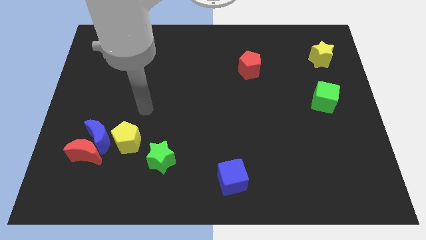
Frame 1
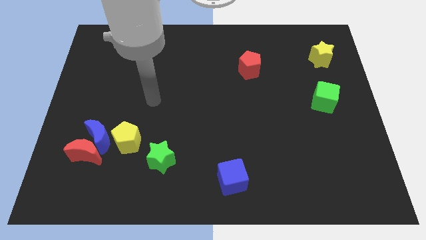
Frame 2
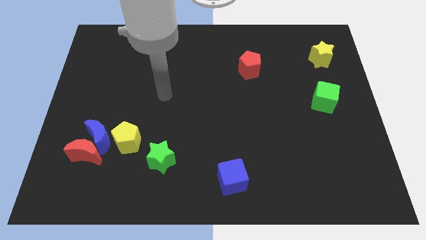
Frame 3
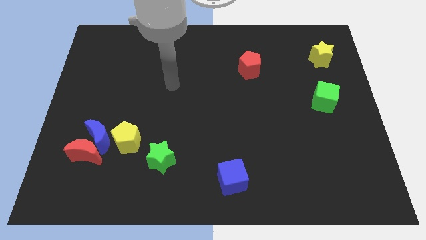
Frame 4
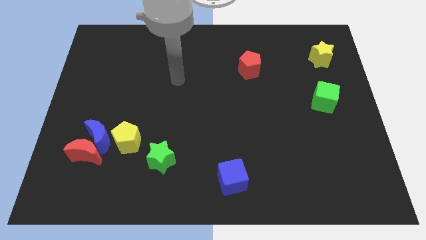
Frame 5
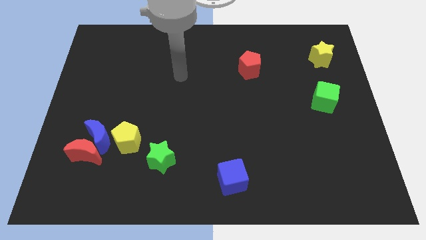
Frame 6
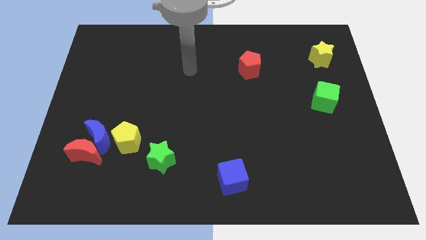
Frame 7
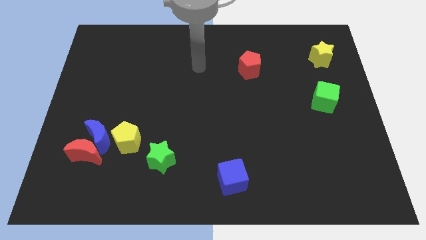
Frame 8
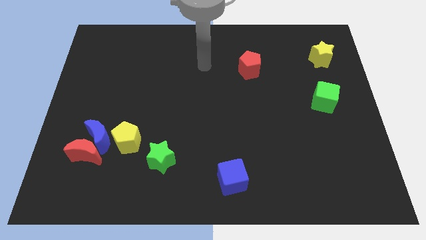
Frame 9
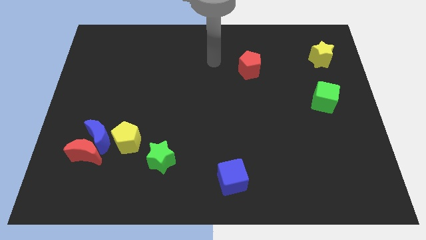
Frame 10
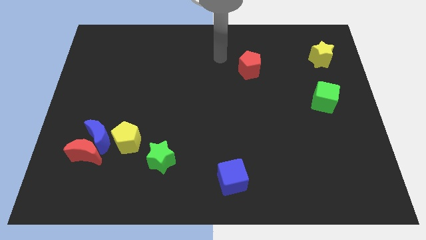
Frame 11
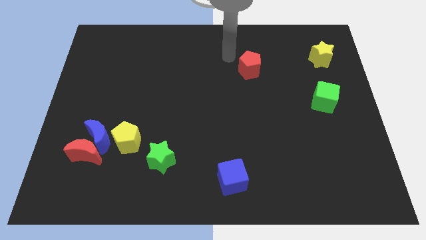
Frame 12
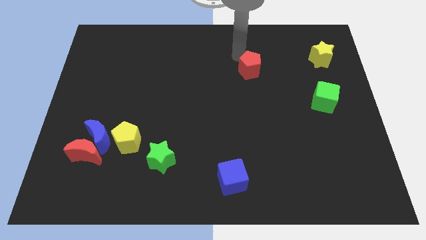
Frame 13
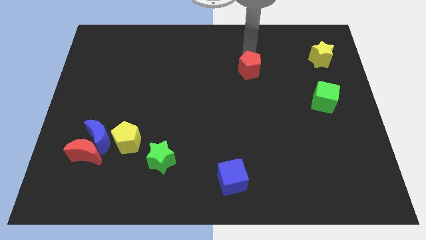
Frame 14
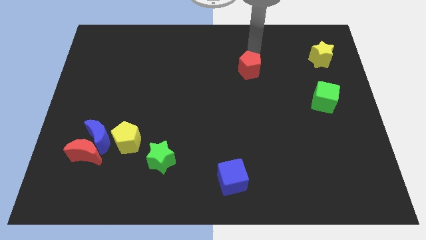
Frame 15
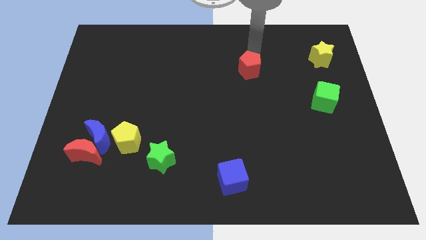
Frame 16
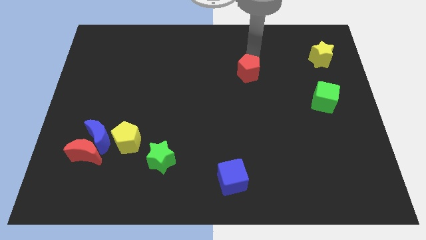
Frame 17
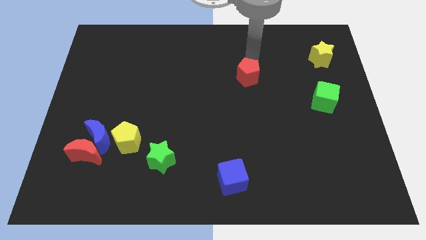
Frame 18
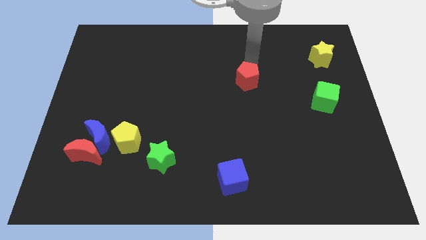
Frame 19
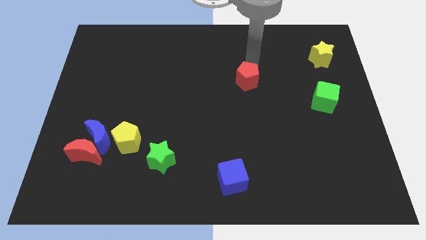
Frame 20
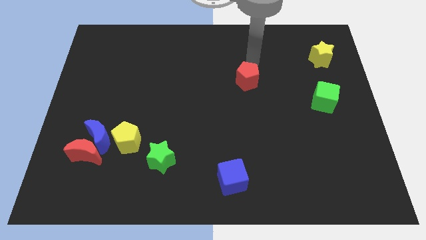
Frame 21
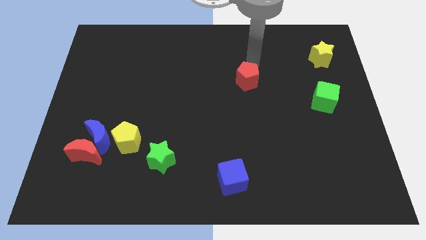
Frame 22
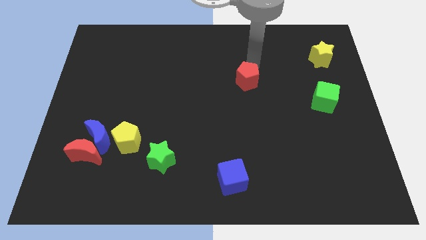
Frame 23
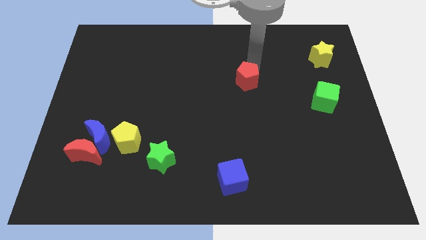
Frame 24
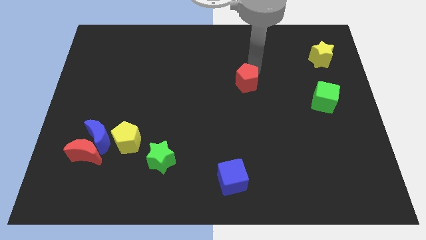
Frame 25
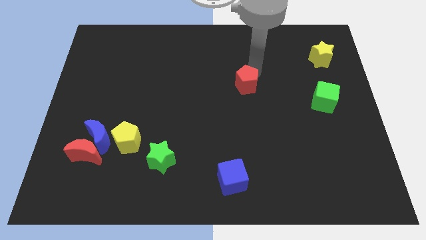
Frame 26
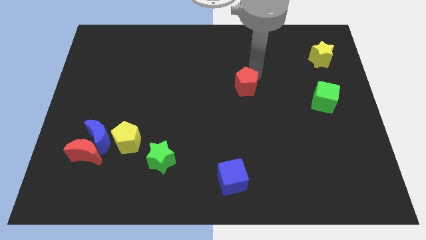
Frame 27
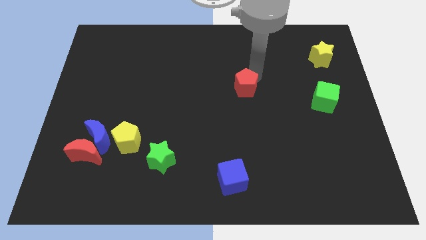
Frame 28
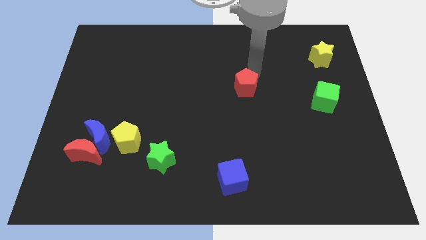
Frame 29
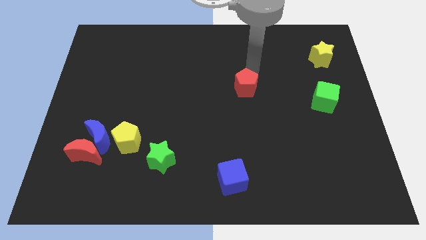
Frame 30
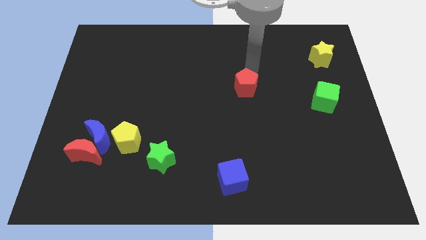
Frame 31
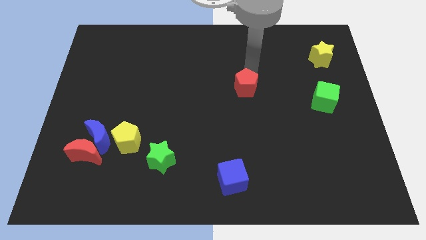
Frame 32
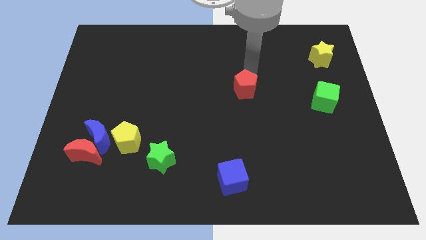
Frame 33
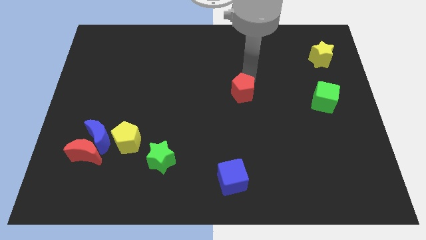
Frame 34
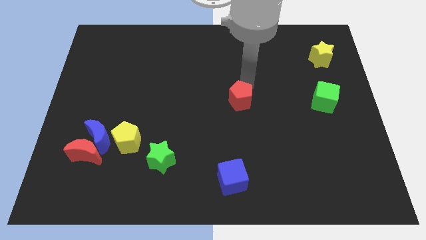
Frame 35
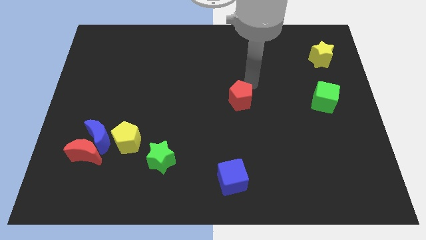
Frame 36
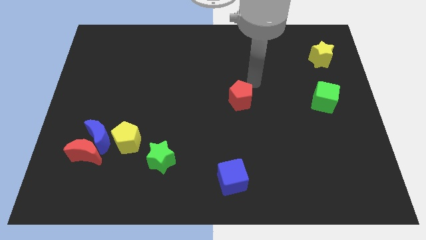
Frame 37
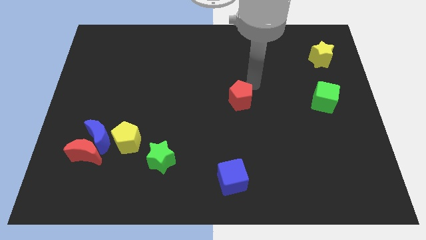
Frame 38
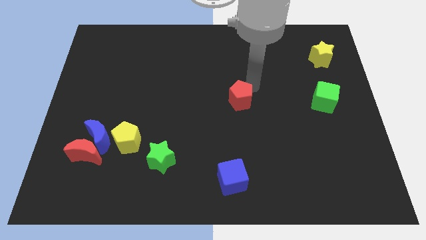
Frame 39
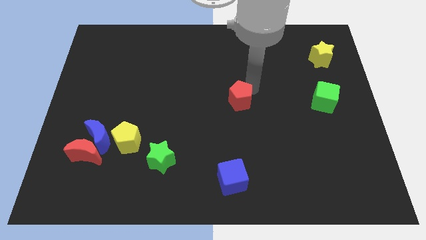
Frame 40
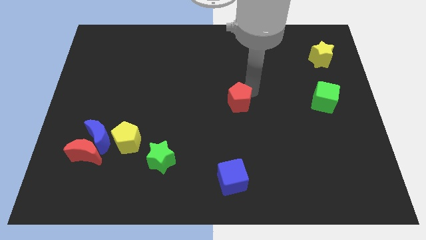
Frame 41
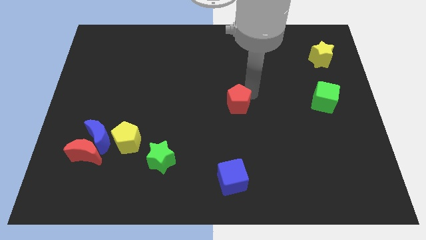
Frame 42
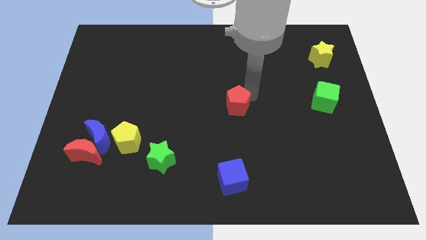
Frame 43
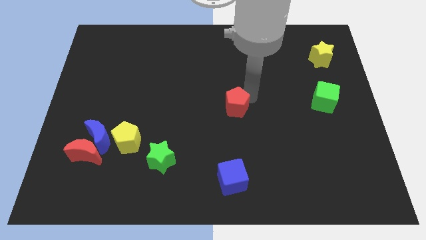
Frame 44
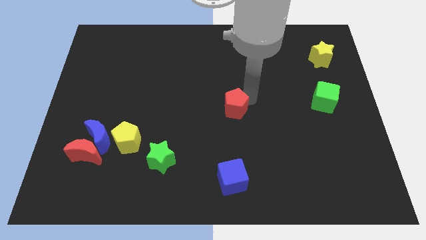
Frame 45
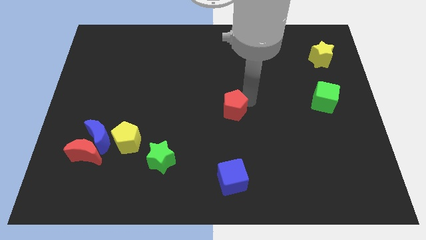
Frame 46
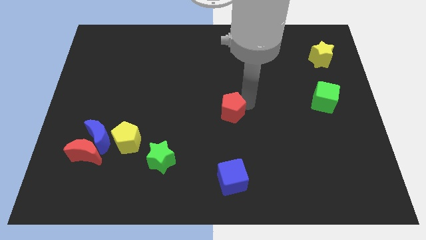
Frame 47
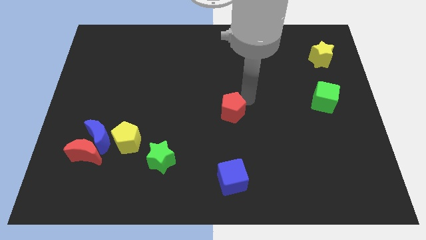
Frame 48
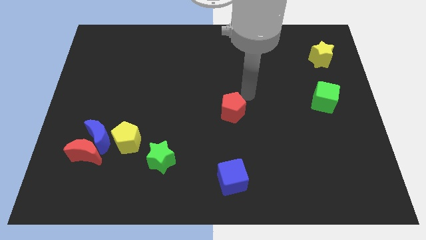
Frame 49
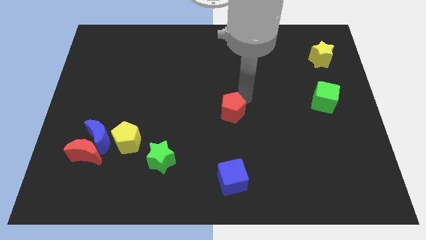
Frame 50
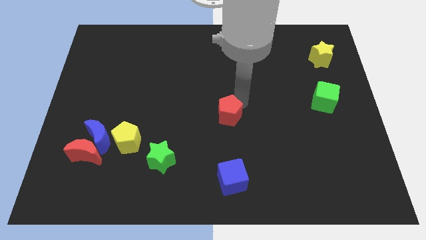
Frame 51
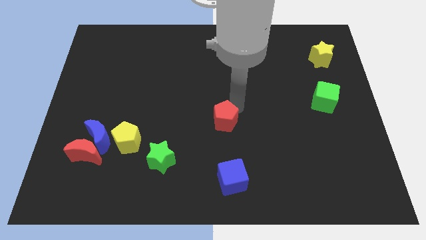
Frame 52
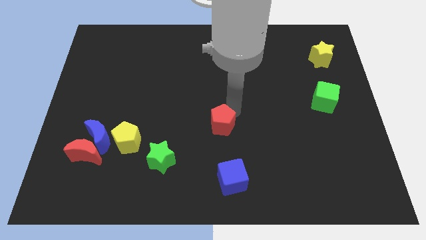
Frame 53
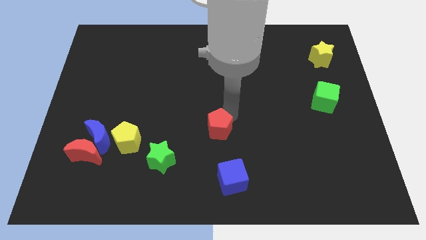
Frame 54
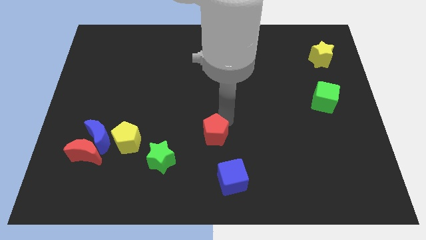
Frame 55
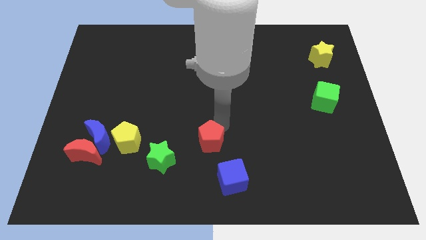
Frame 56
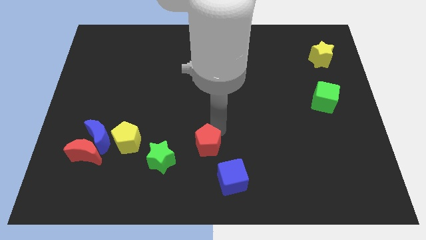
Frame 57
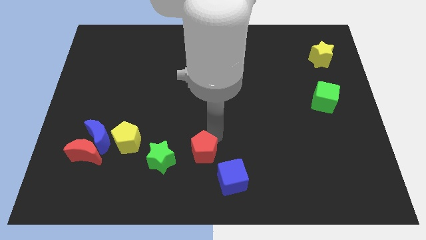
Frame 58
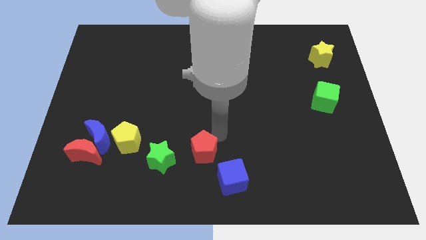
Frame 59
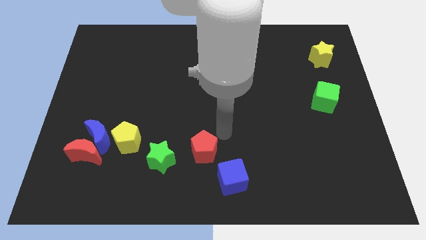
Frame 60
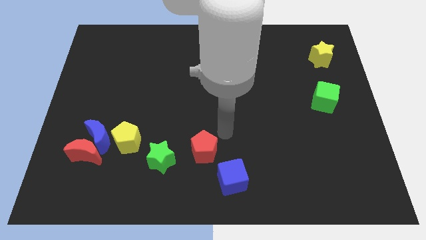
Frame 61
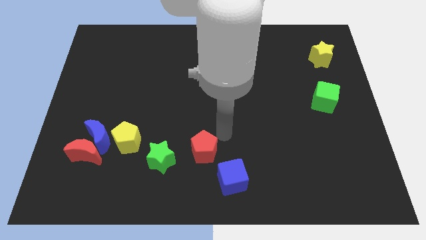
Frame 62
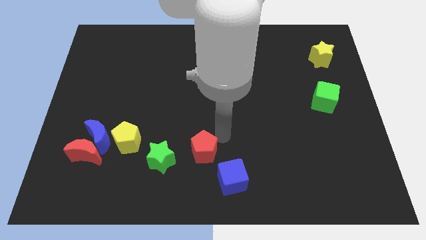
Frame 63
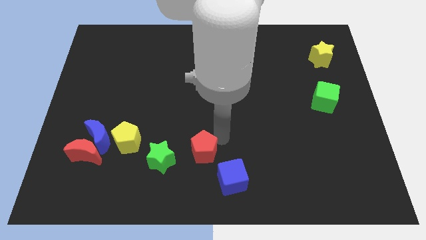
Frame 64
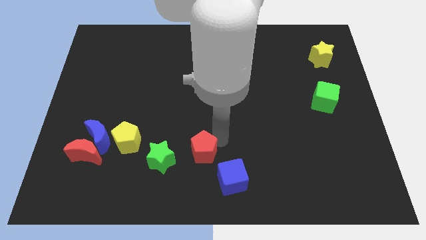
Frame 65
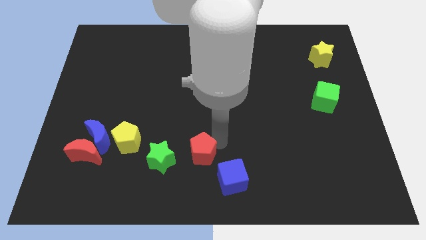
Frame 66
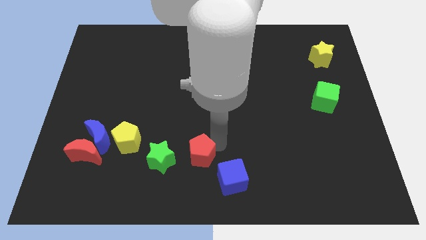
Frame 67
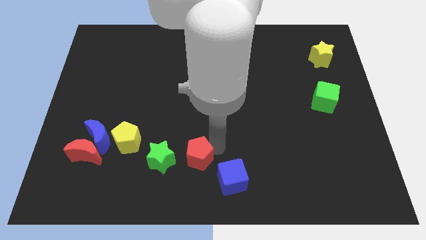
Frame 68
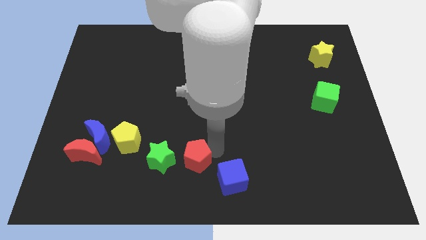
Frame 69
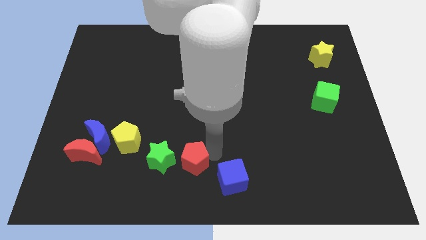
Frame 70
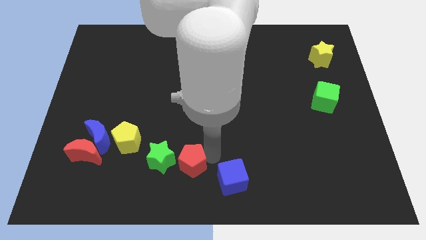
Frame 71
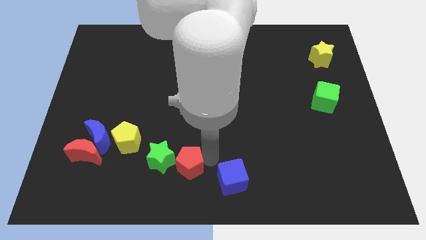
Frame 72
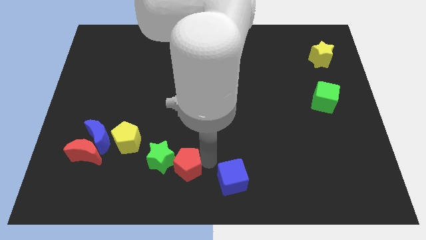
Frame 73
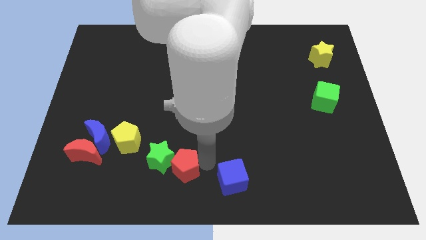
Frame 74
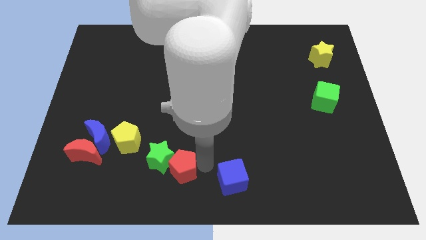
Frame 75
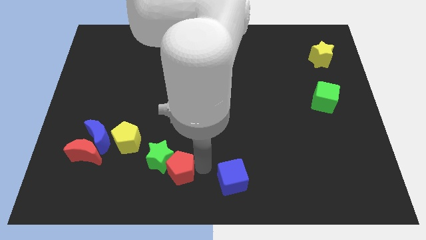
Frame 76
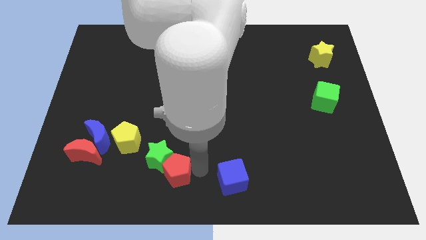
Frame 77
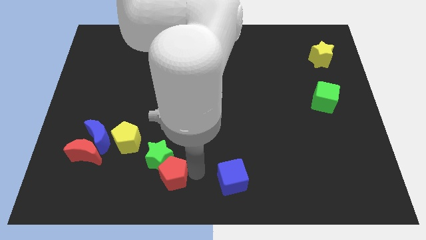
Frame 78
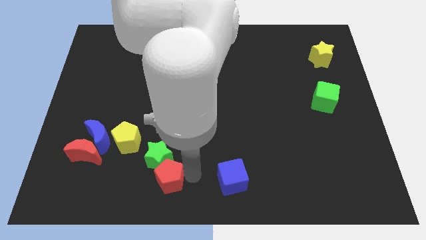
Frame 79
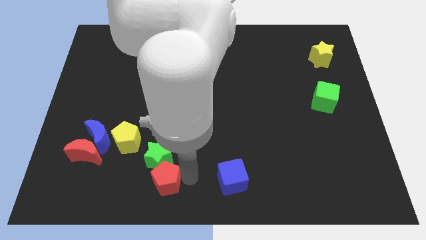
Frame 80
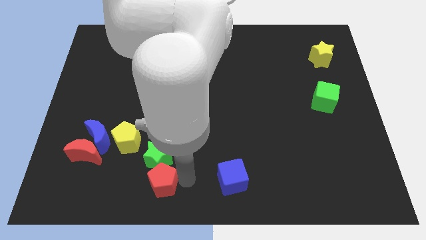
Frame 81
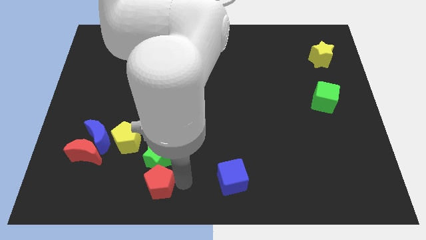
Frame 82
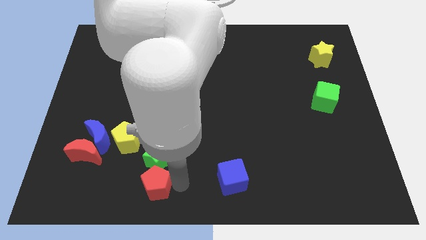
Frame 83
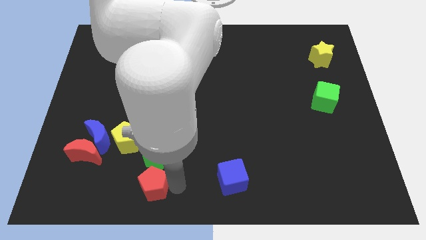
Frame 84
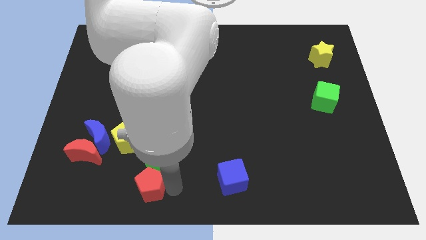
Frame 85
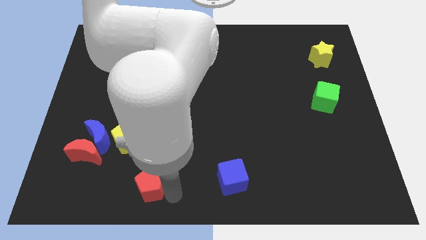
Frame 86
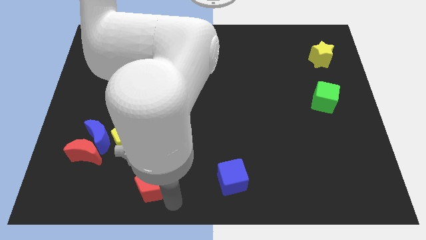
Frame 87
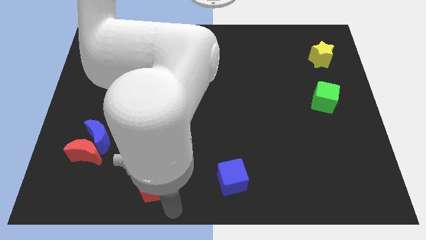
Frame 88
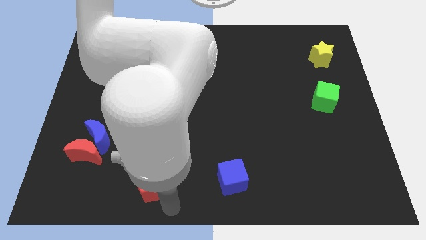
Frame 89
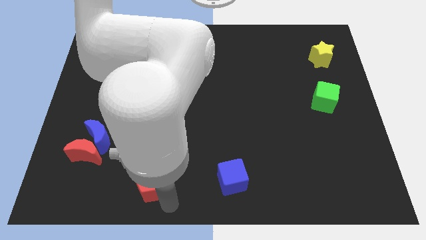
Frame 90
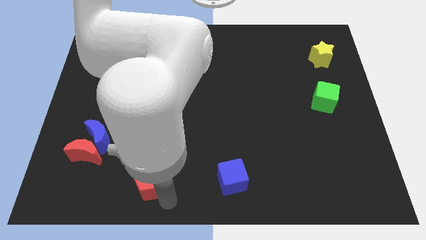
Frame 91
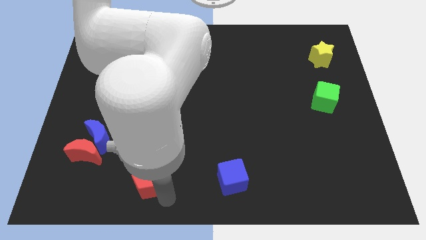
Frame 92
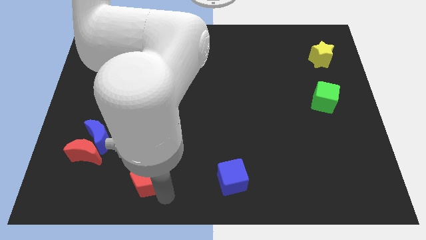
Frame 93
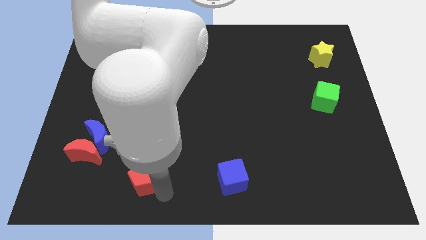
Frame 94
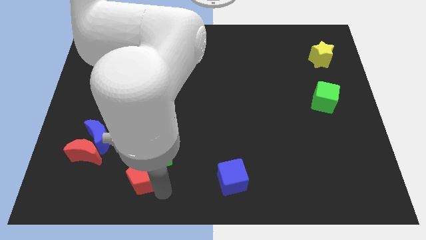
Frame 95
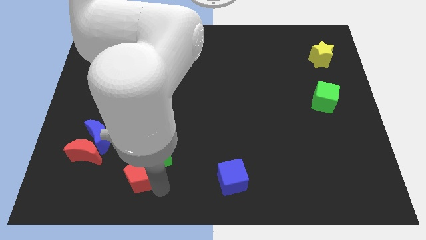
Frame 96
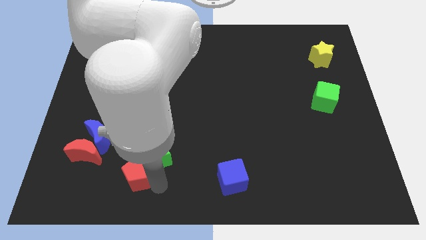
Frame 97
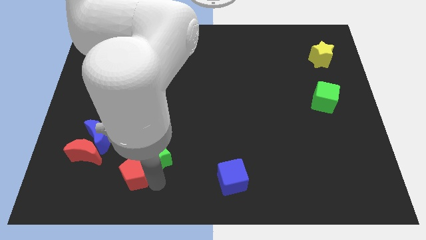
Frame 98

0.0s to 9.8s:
push the red pentagon diagonally down and to the right of the blue moon
